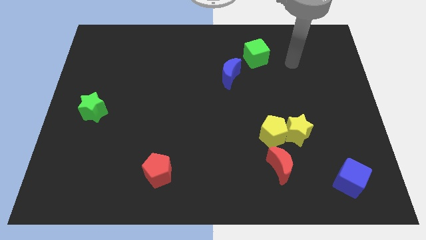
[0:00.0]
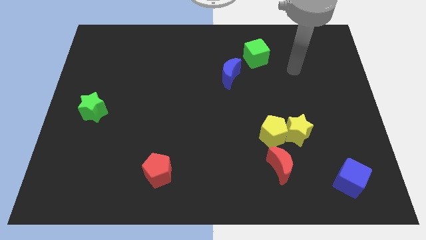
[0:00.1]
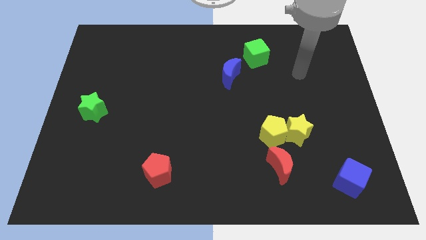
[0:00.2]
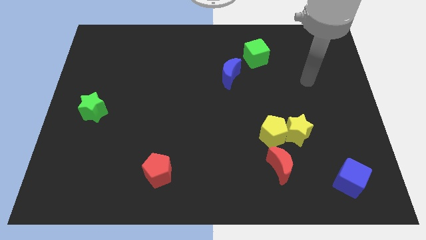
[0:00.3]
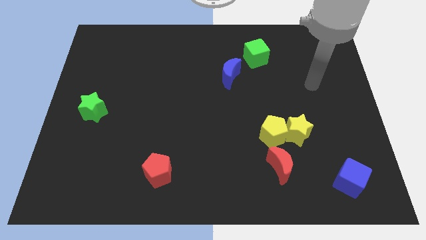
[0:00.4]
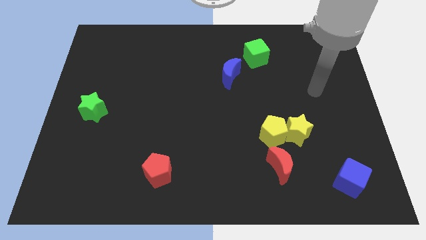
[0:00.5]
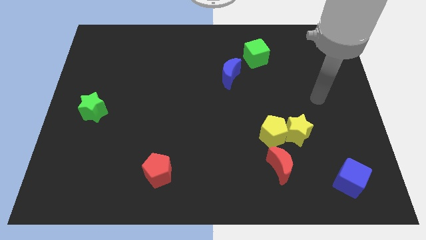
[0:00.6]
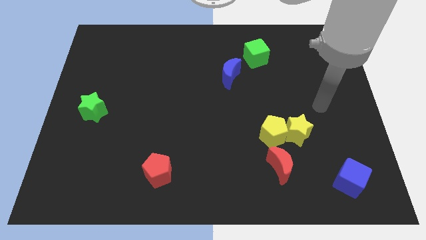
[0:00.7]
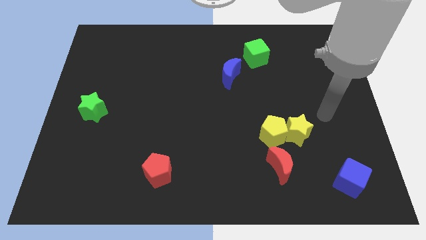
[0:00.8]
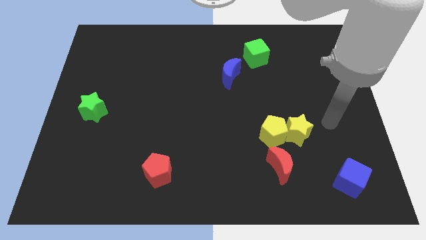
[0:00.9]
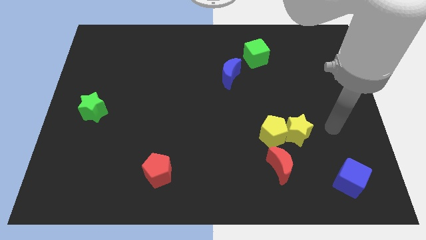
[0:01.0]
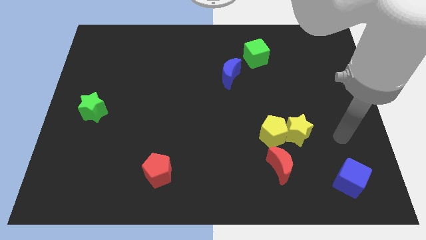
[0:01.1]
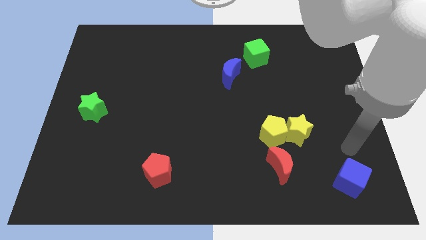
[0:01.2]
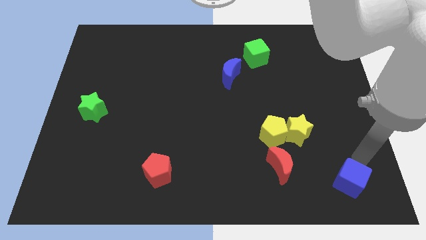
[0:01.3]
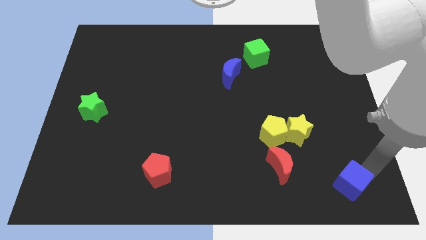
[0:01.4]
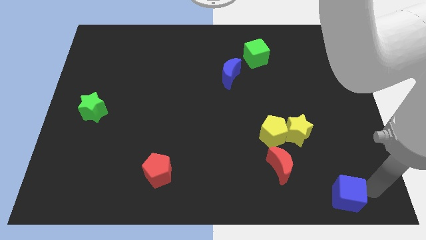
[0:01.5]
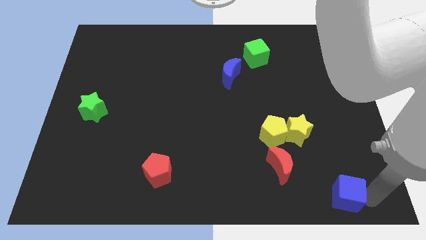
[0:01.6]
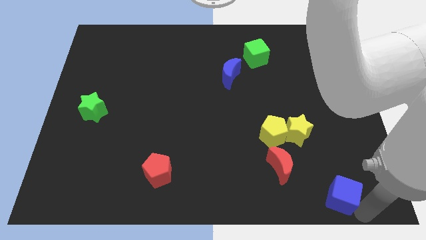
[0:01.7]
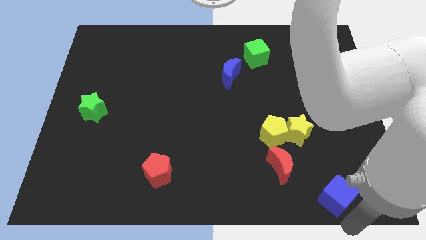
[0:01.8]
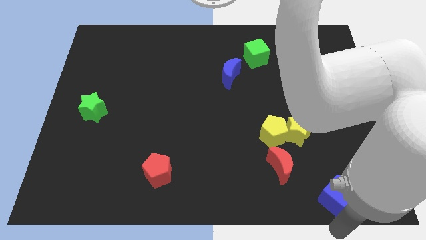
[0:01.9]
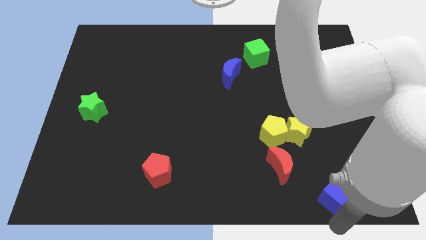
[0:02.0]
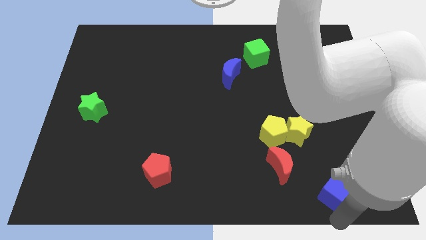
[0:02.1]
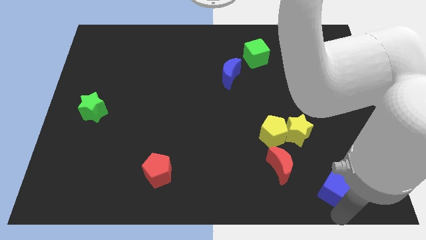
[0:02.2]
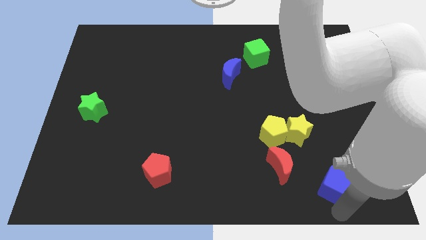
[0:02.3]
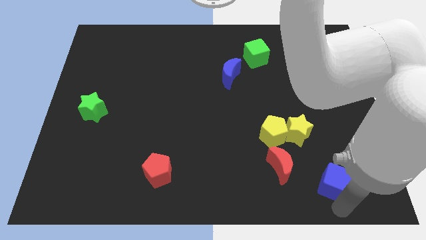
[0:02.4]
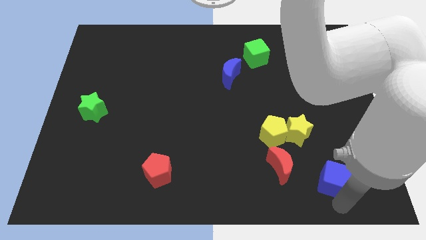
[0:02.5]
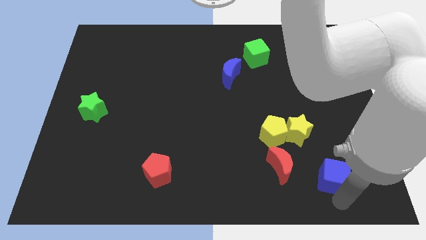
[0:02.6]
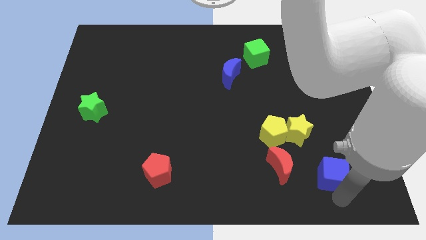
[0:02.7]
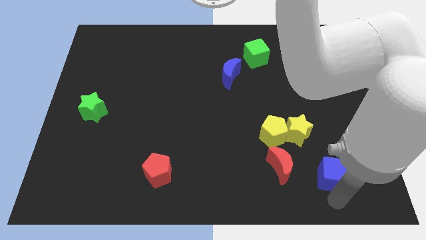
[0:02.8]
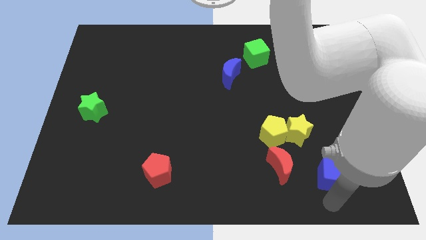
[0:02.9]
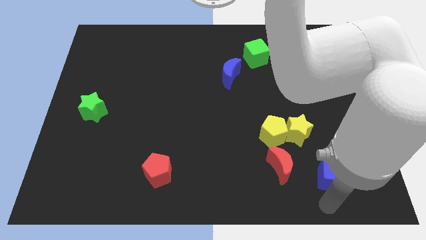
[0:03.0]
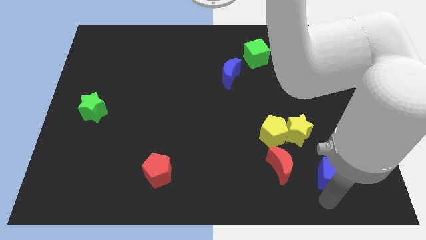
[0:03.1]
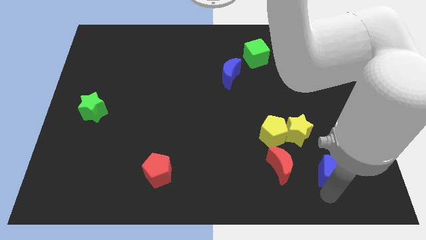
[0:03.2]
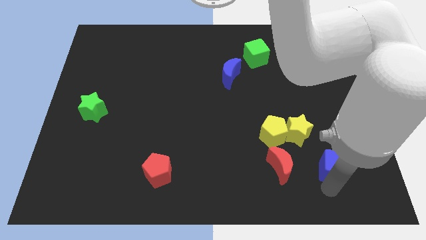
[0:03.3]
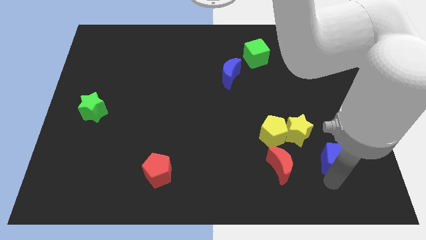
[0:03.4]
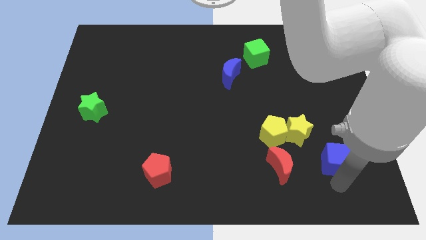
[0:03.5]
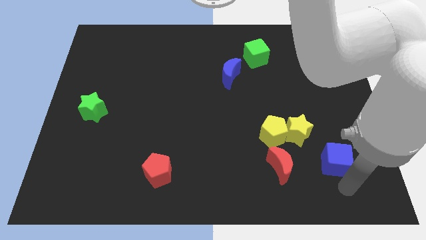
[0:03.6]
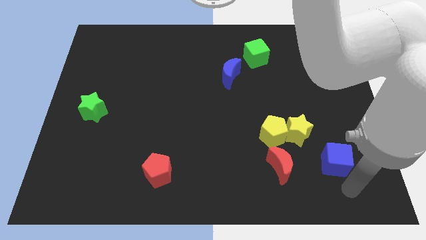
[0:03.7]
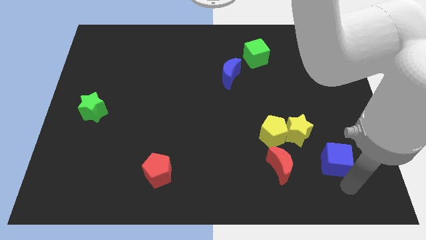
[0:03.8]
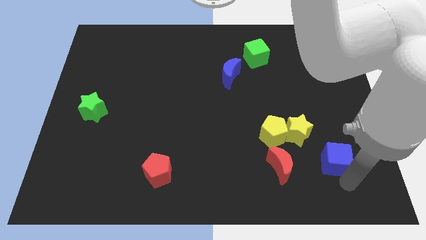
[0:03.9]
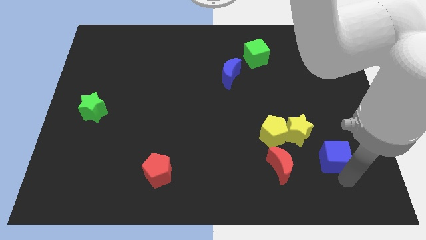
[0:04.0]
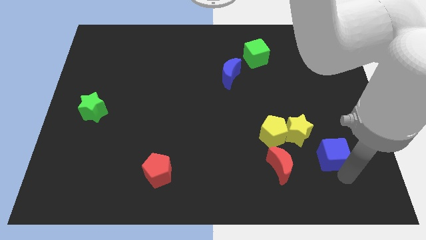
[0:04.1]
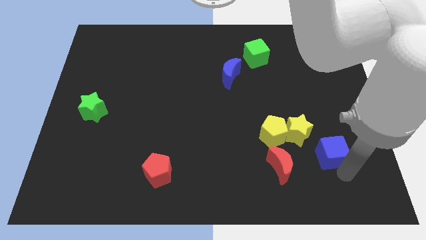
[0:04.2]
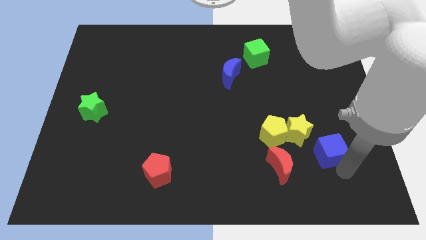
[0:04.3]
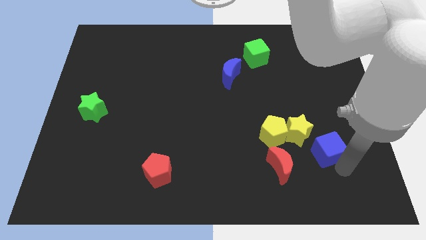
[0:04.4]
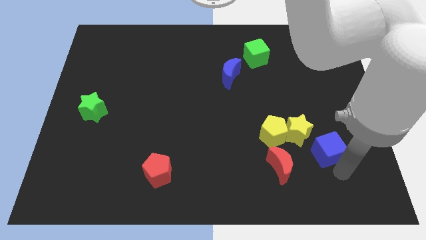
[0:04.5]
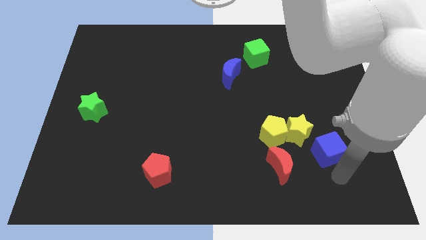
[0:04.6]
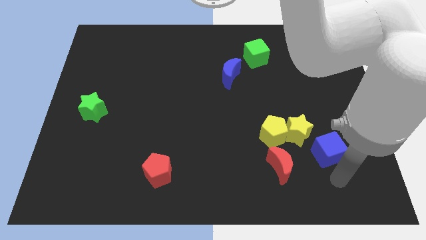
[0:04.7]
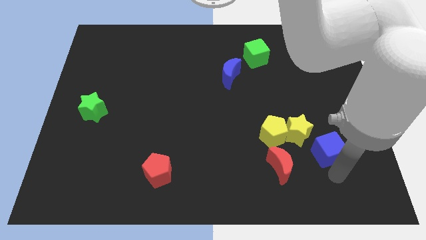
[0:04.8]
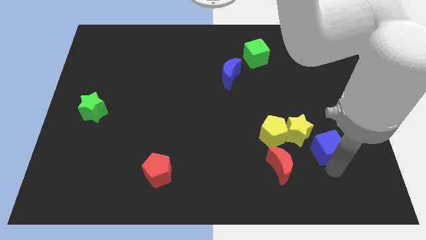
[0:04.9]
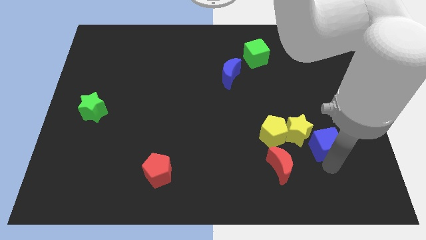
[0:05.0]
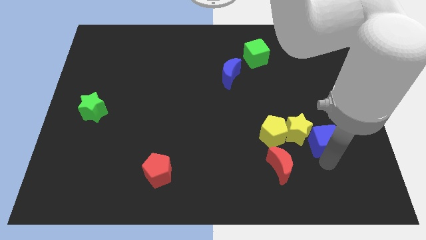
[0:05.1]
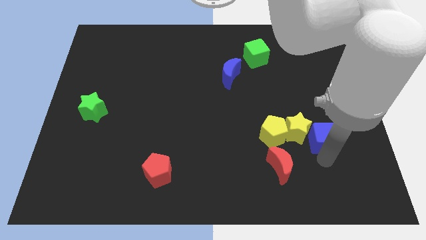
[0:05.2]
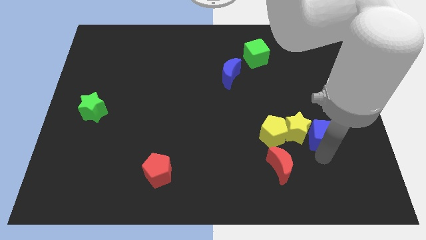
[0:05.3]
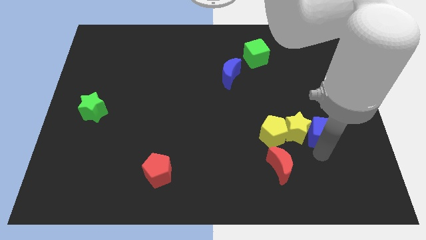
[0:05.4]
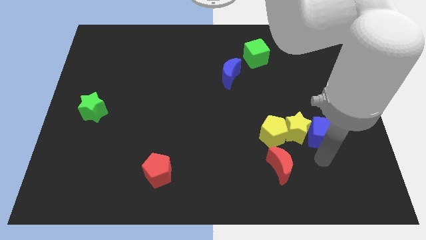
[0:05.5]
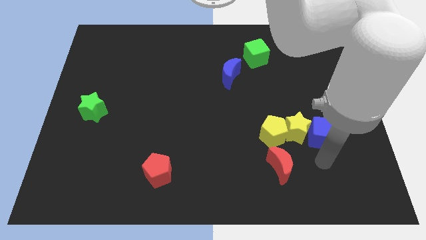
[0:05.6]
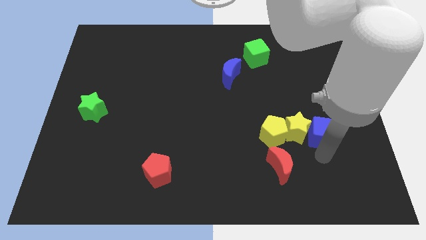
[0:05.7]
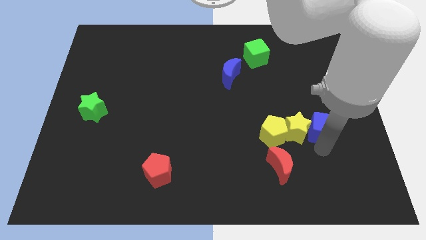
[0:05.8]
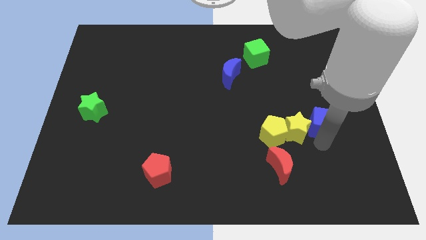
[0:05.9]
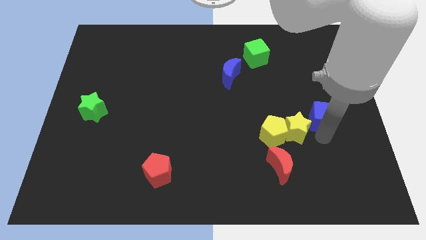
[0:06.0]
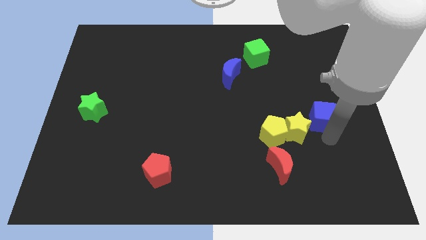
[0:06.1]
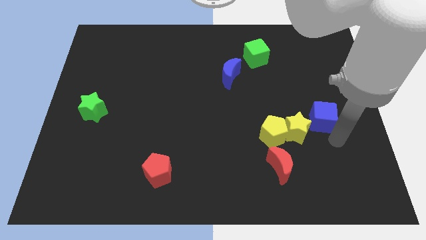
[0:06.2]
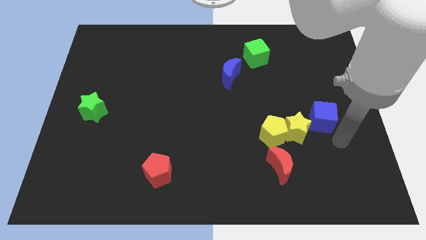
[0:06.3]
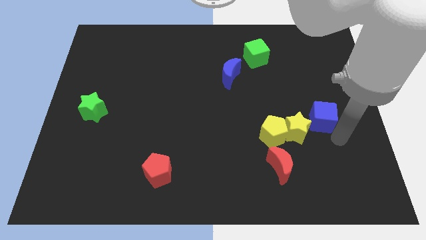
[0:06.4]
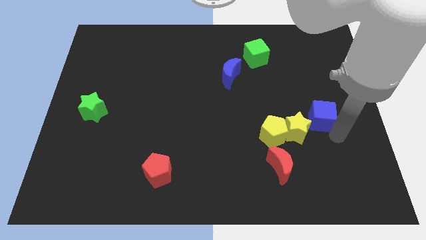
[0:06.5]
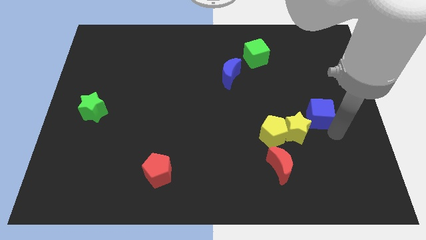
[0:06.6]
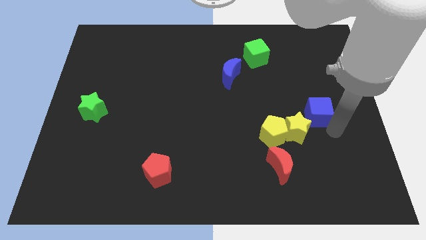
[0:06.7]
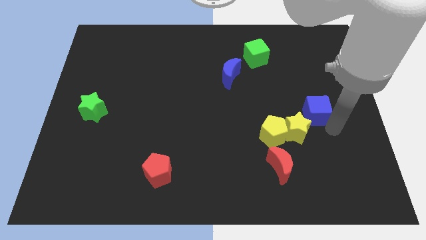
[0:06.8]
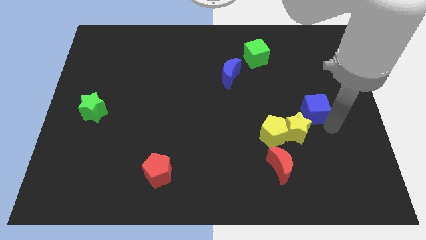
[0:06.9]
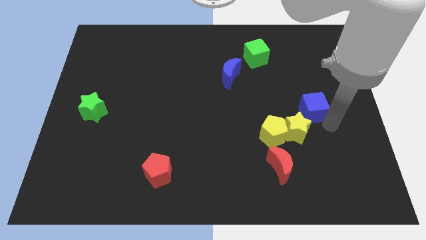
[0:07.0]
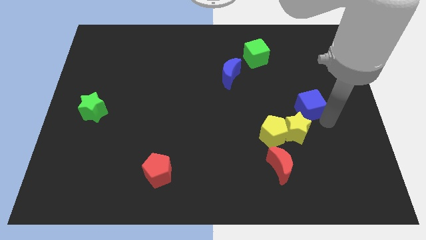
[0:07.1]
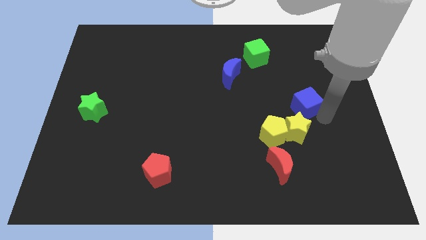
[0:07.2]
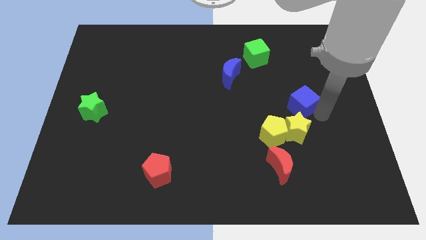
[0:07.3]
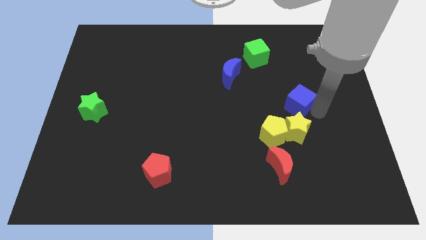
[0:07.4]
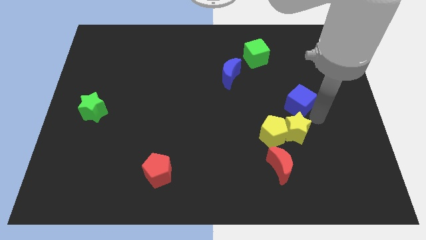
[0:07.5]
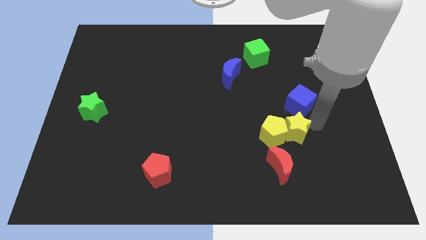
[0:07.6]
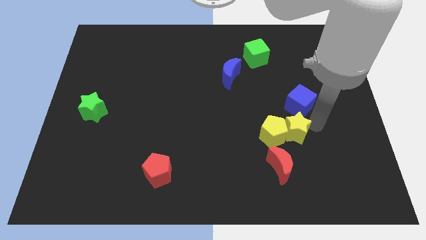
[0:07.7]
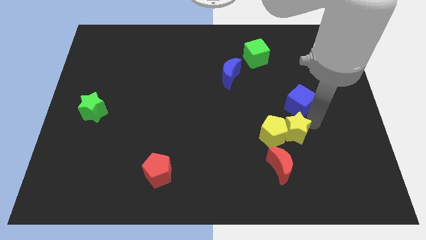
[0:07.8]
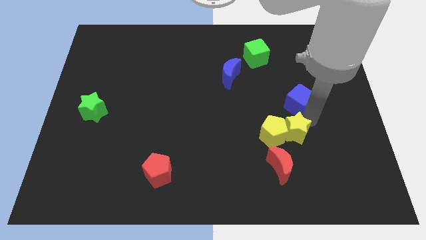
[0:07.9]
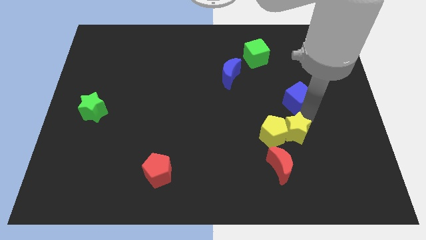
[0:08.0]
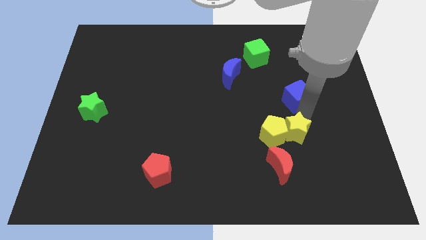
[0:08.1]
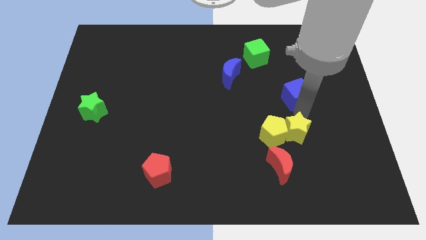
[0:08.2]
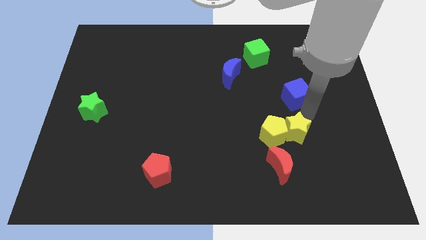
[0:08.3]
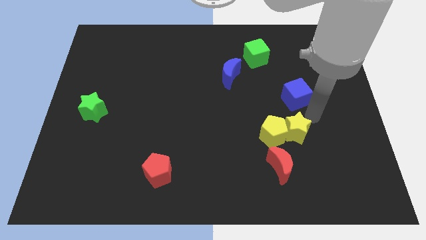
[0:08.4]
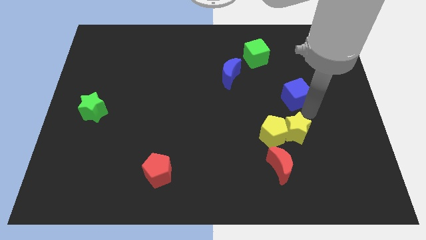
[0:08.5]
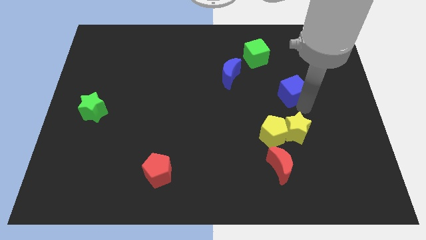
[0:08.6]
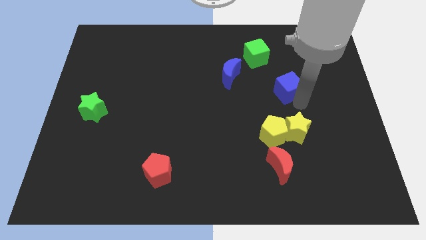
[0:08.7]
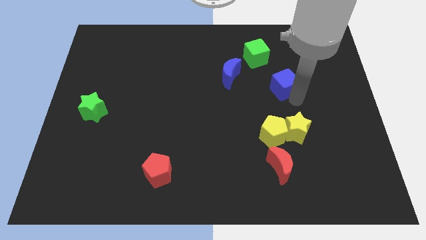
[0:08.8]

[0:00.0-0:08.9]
move the blue cube diagonally down and to the right of the green cube
